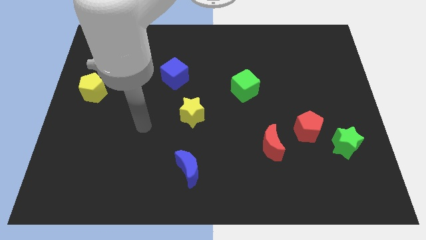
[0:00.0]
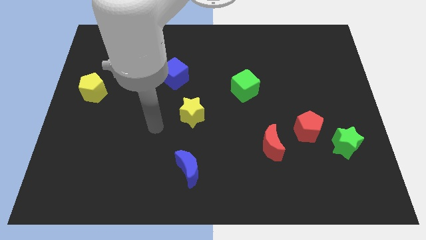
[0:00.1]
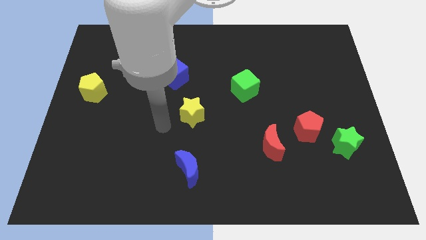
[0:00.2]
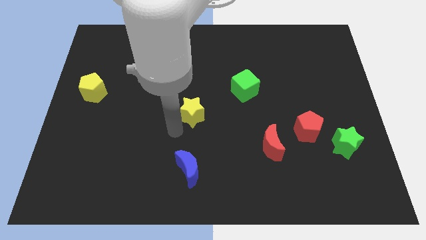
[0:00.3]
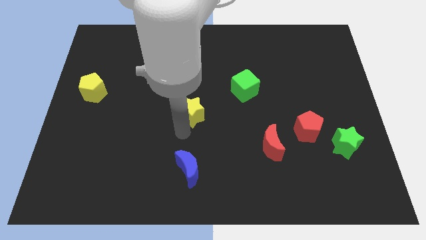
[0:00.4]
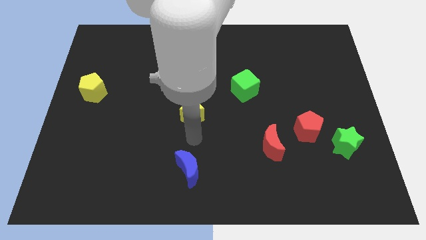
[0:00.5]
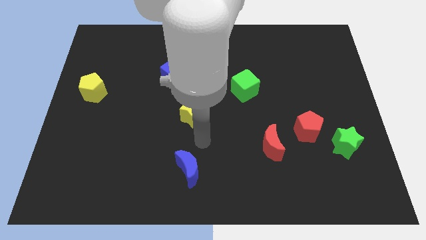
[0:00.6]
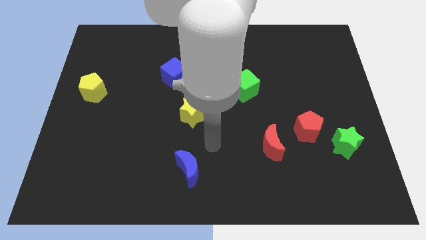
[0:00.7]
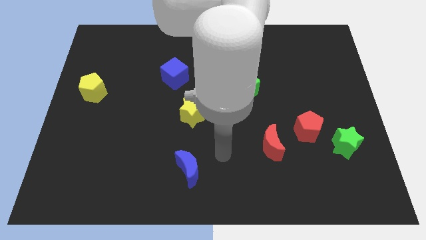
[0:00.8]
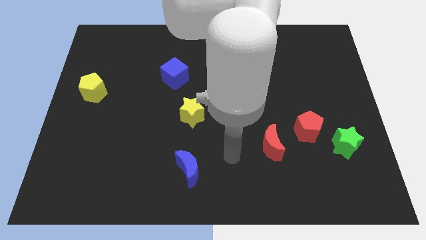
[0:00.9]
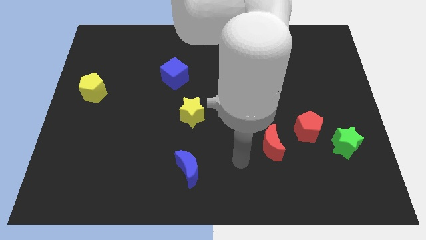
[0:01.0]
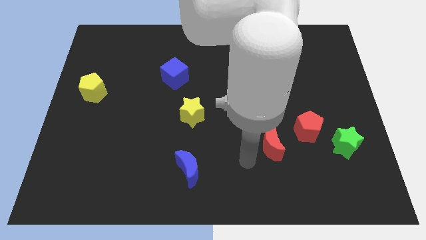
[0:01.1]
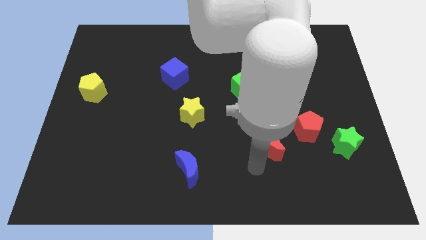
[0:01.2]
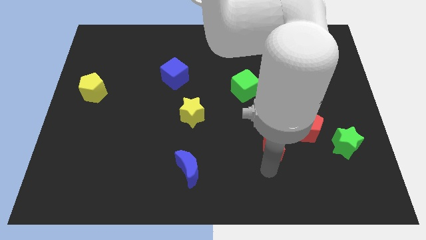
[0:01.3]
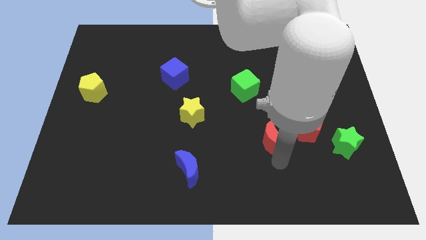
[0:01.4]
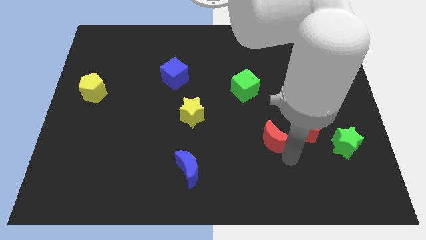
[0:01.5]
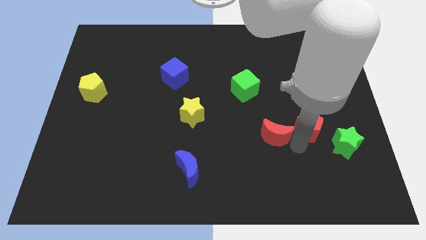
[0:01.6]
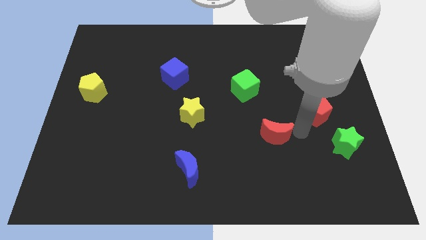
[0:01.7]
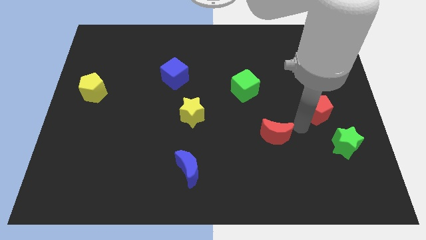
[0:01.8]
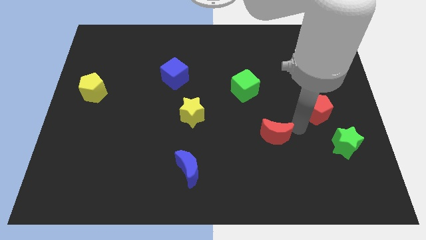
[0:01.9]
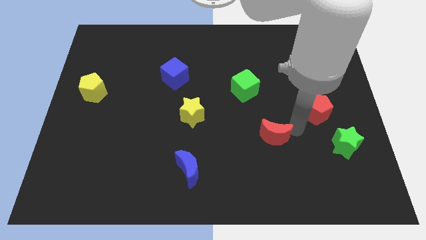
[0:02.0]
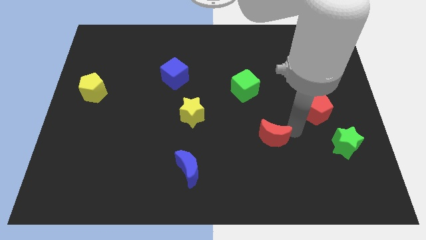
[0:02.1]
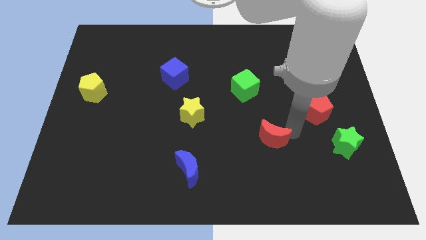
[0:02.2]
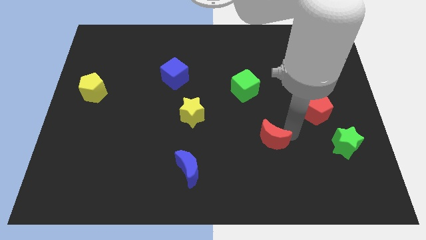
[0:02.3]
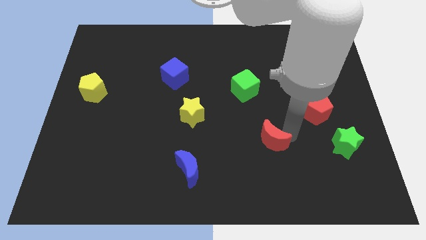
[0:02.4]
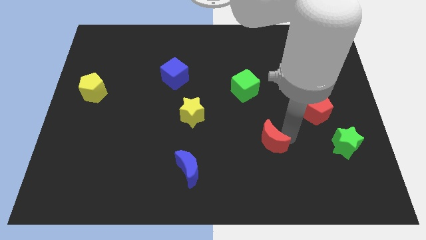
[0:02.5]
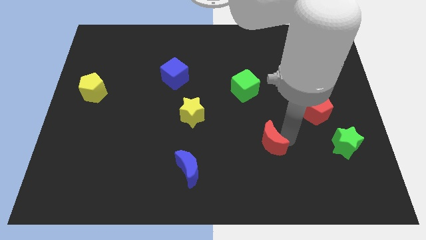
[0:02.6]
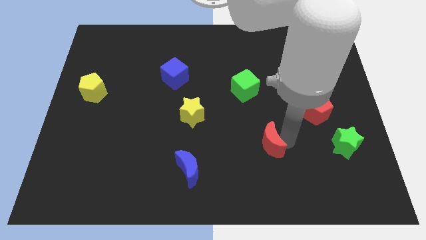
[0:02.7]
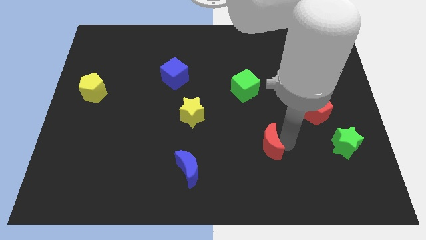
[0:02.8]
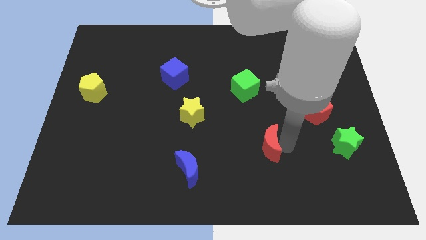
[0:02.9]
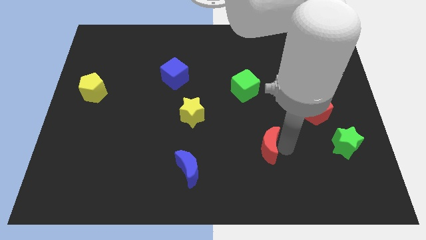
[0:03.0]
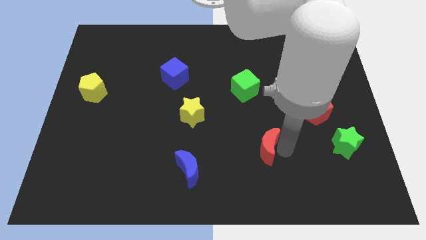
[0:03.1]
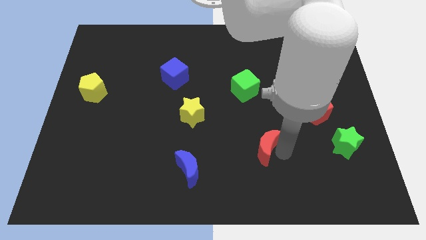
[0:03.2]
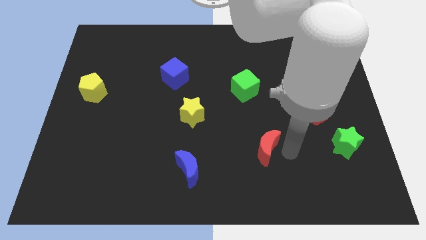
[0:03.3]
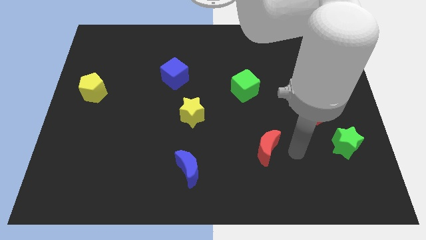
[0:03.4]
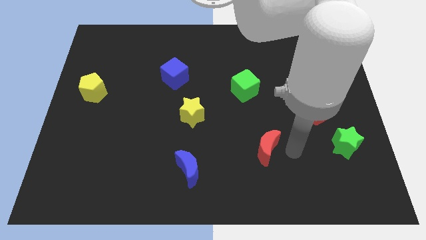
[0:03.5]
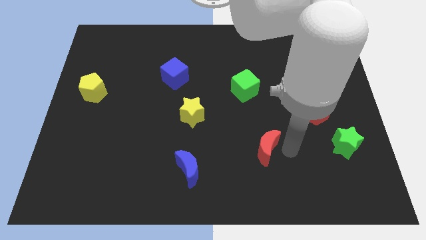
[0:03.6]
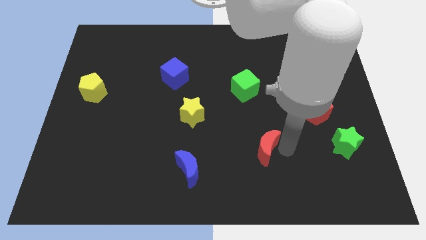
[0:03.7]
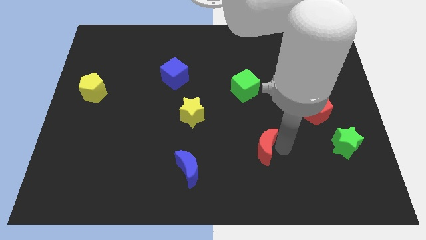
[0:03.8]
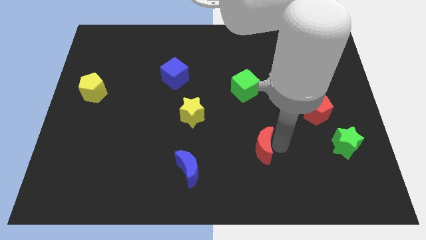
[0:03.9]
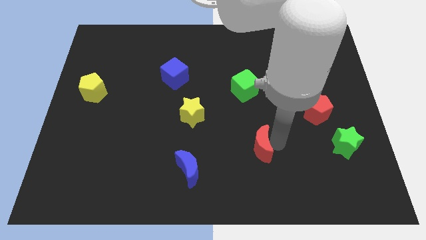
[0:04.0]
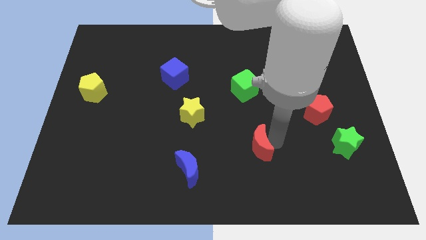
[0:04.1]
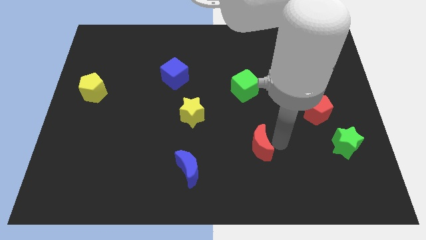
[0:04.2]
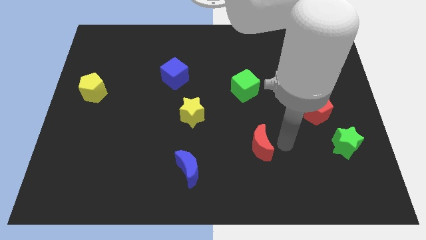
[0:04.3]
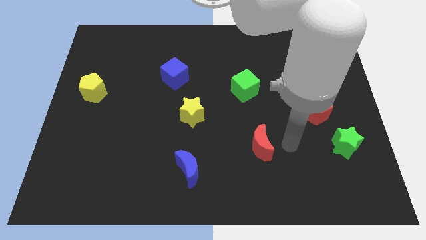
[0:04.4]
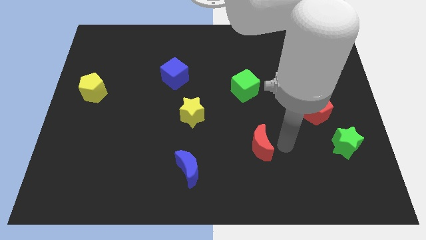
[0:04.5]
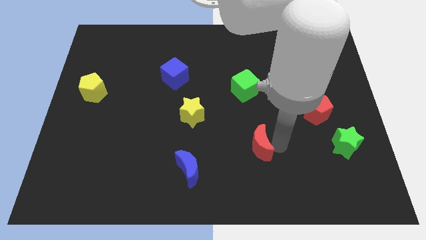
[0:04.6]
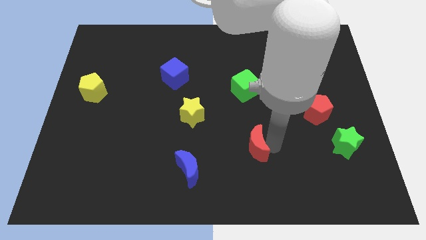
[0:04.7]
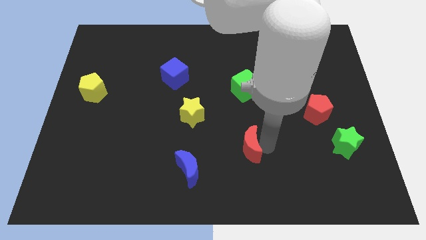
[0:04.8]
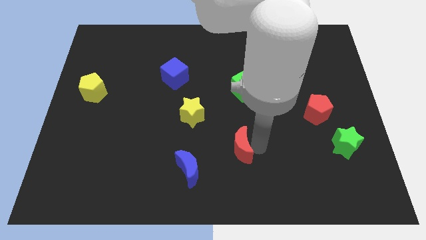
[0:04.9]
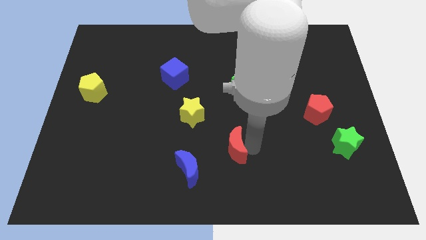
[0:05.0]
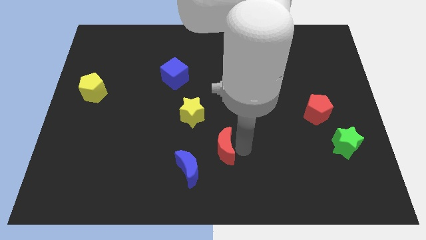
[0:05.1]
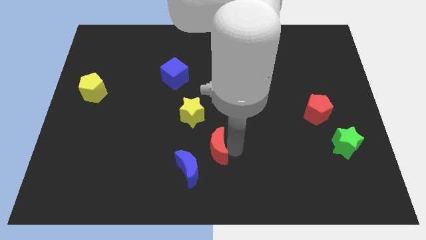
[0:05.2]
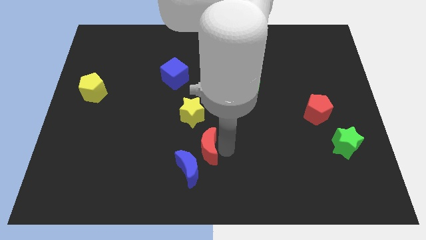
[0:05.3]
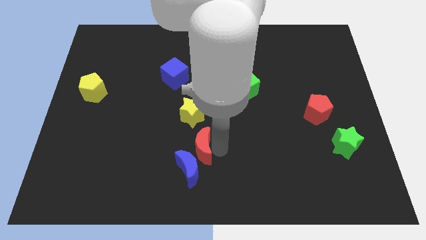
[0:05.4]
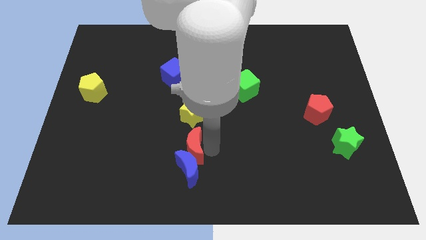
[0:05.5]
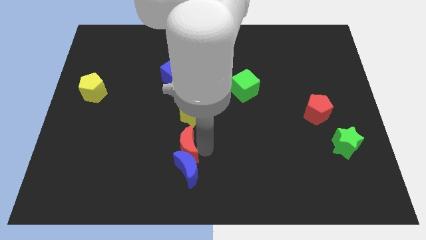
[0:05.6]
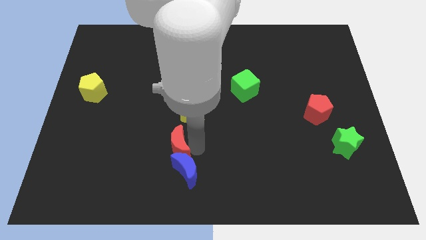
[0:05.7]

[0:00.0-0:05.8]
slide the red moon left

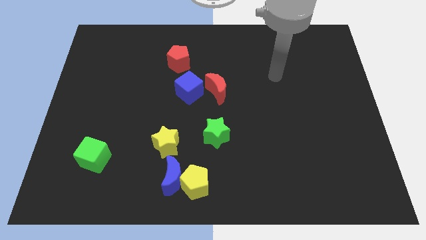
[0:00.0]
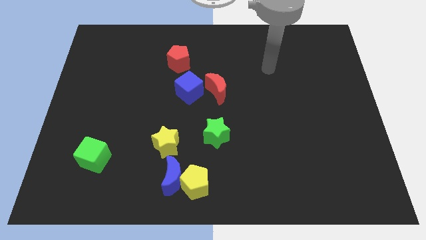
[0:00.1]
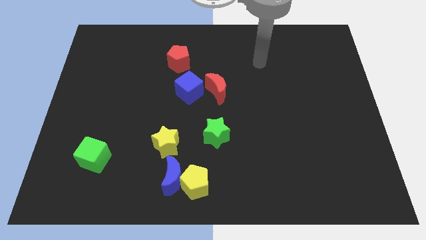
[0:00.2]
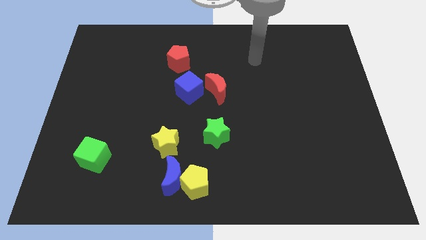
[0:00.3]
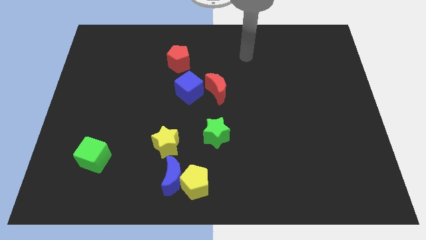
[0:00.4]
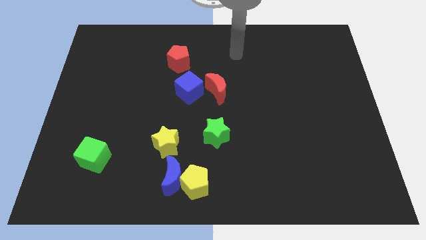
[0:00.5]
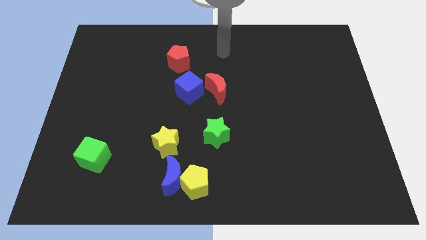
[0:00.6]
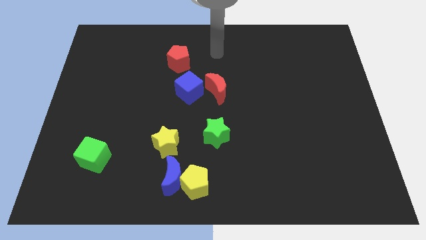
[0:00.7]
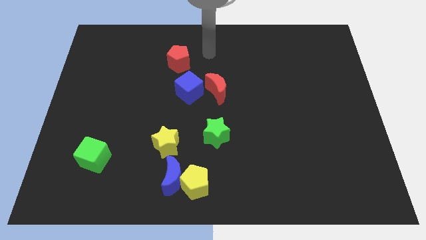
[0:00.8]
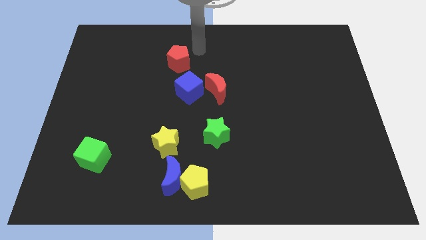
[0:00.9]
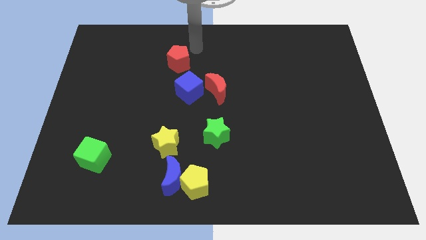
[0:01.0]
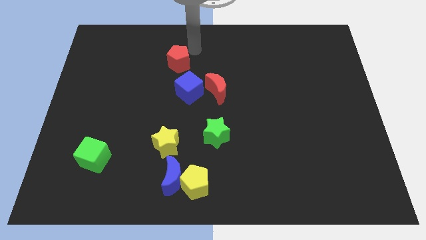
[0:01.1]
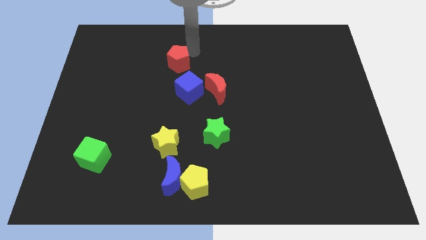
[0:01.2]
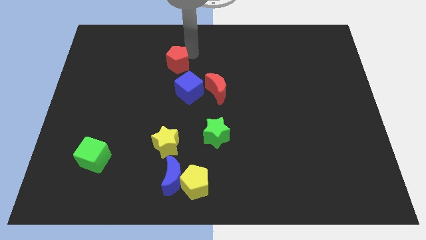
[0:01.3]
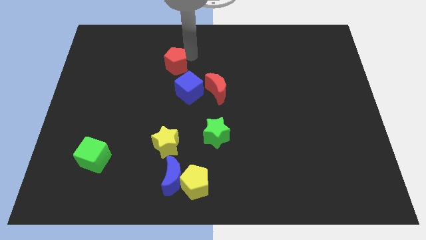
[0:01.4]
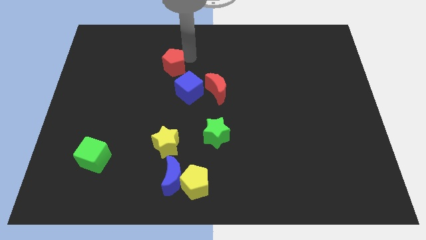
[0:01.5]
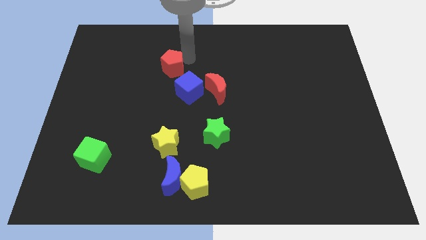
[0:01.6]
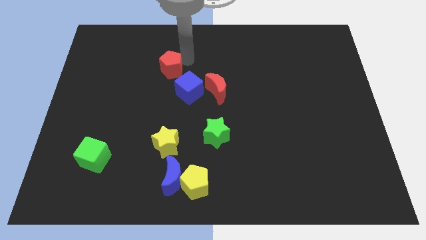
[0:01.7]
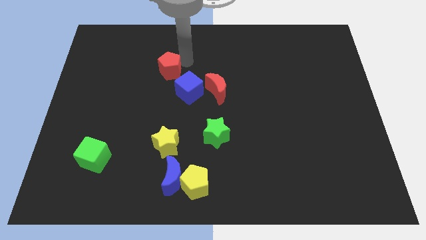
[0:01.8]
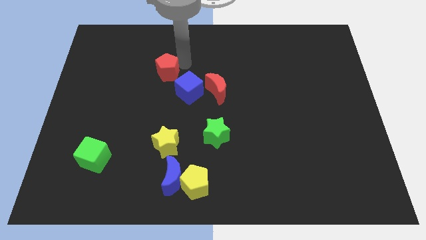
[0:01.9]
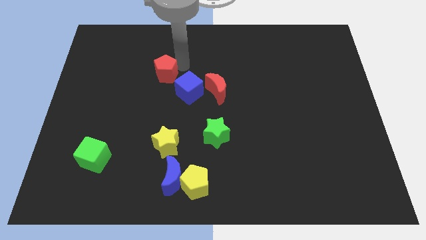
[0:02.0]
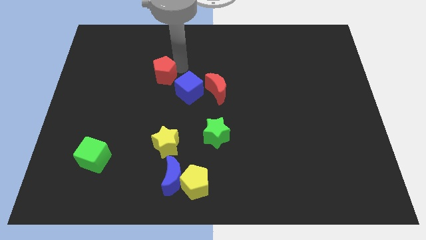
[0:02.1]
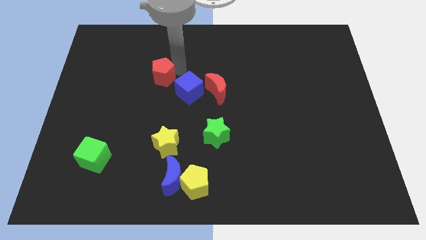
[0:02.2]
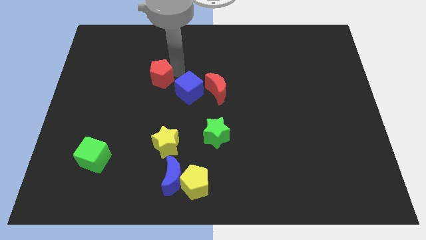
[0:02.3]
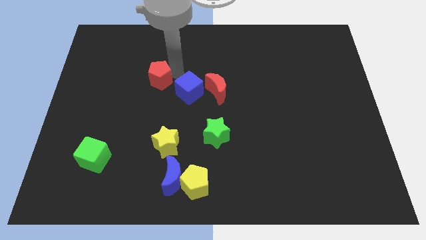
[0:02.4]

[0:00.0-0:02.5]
slide the red pentagon a bit down and to the left diagonally
